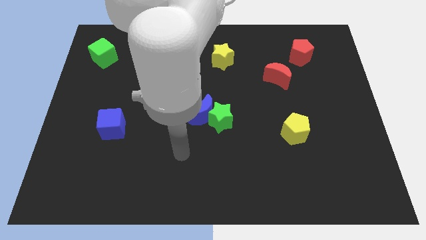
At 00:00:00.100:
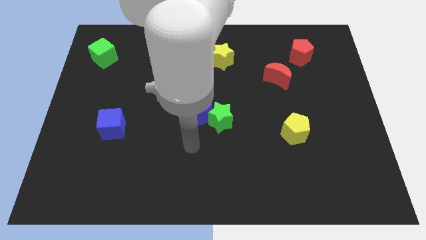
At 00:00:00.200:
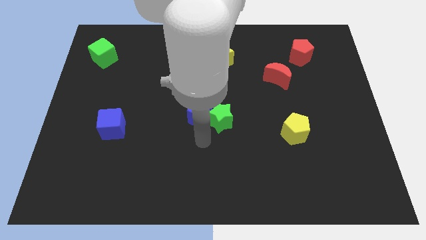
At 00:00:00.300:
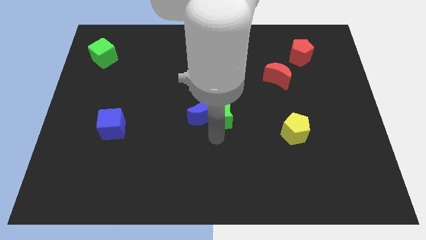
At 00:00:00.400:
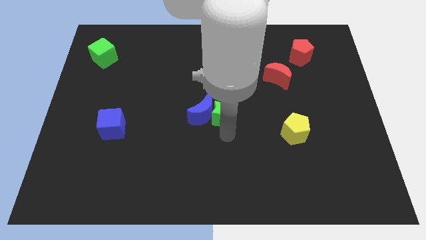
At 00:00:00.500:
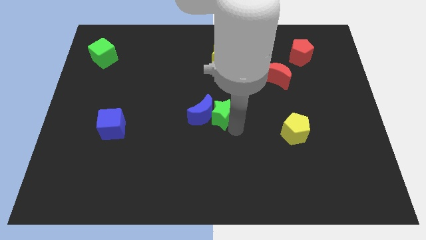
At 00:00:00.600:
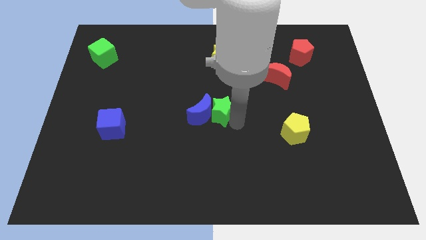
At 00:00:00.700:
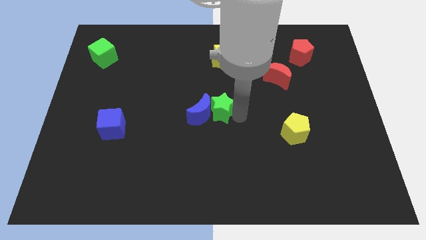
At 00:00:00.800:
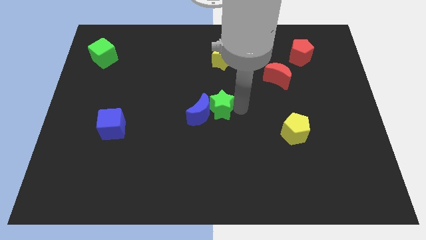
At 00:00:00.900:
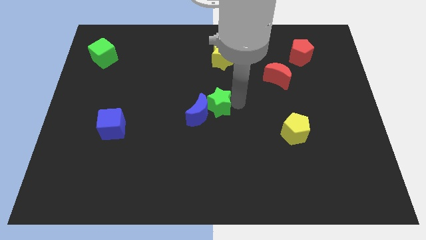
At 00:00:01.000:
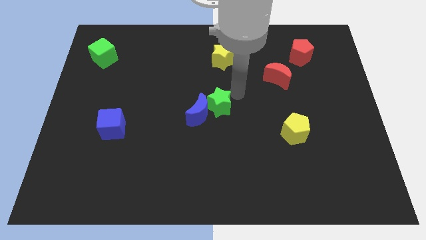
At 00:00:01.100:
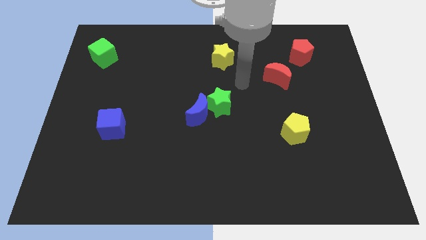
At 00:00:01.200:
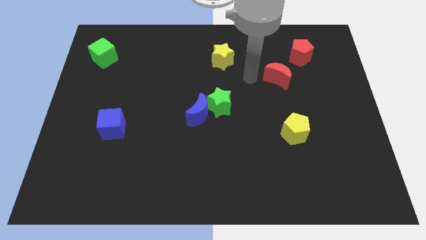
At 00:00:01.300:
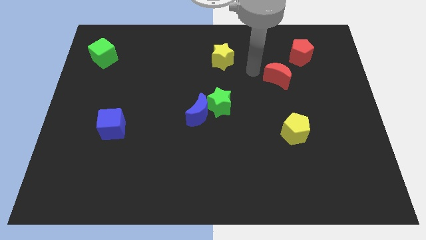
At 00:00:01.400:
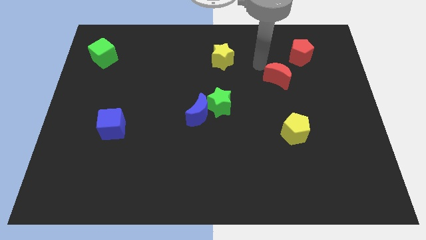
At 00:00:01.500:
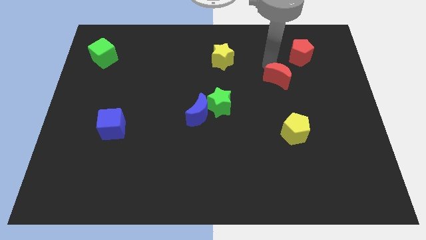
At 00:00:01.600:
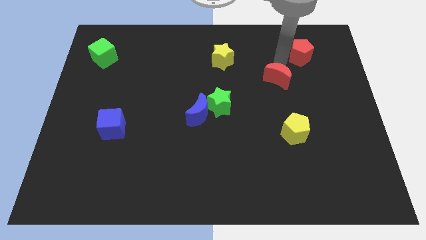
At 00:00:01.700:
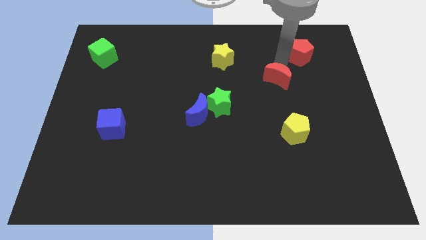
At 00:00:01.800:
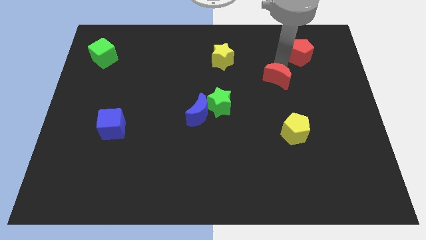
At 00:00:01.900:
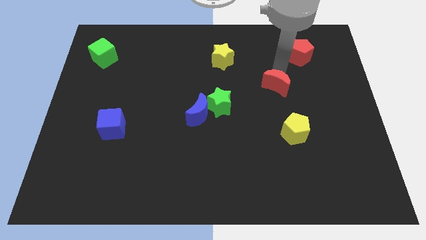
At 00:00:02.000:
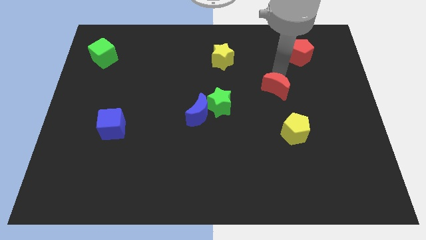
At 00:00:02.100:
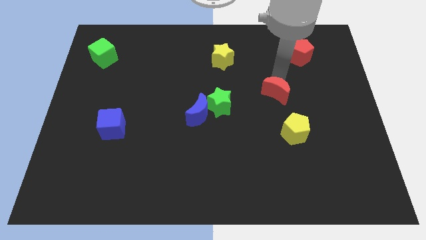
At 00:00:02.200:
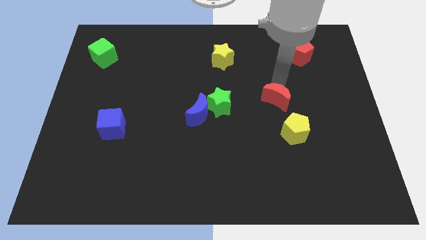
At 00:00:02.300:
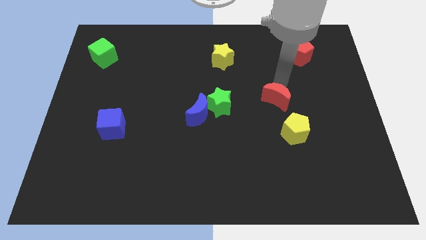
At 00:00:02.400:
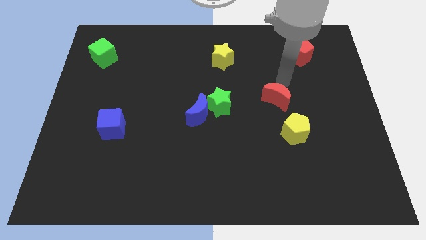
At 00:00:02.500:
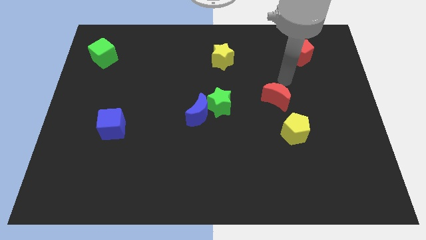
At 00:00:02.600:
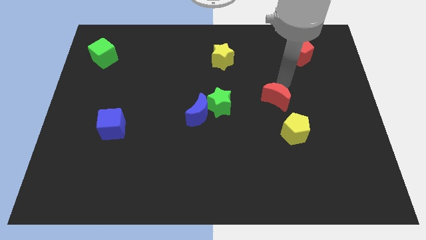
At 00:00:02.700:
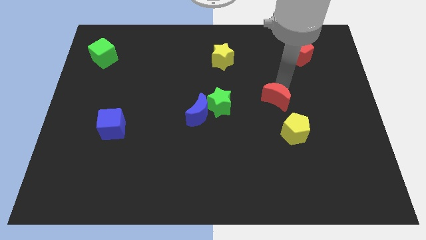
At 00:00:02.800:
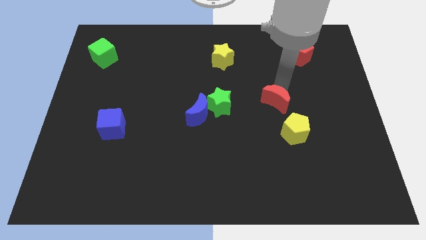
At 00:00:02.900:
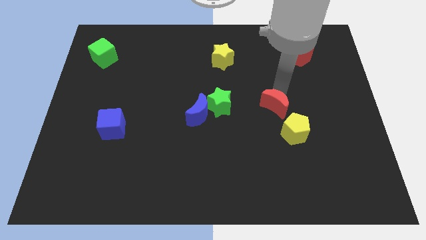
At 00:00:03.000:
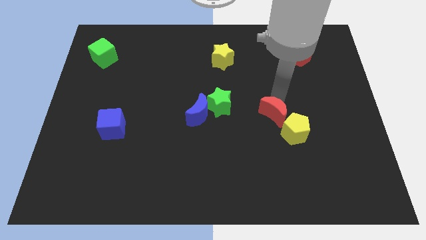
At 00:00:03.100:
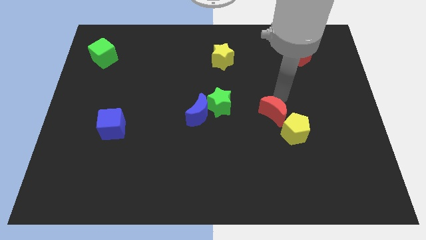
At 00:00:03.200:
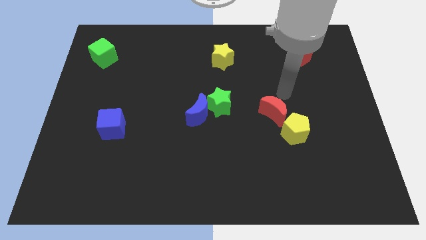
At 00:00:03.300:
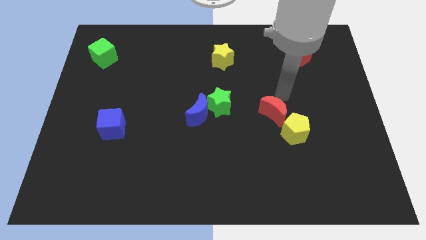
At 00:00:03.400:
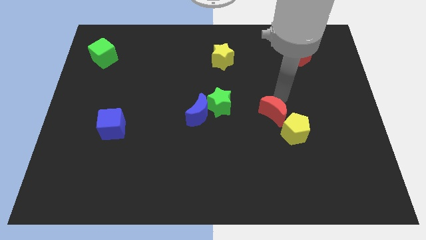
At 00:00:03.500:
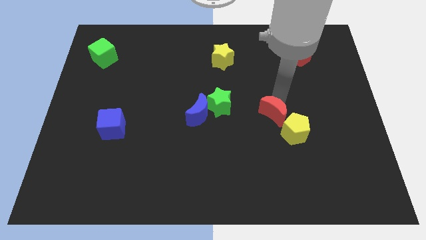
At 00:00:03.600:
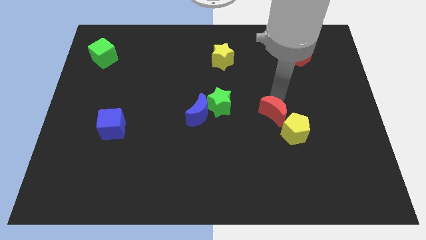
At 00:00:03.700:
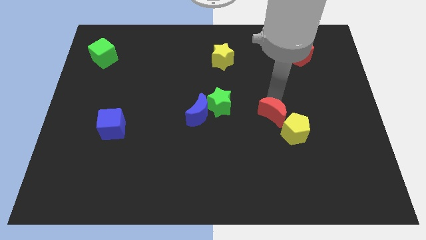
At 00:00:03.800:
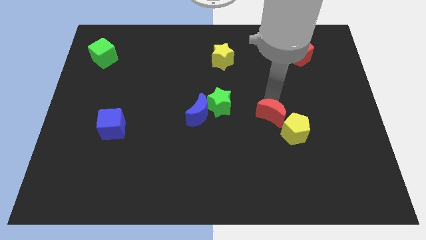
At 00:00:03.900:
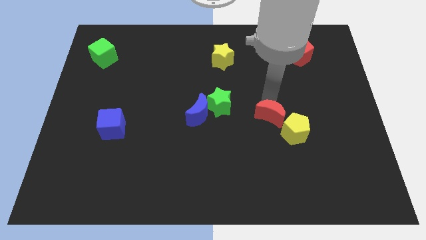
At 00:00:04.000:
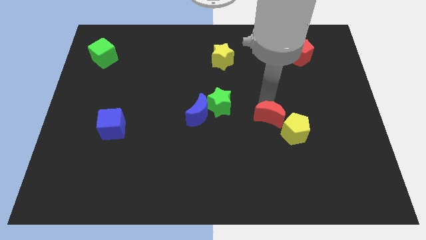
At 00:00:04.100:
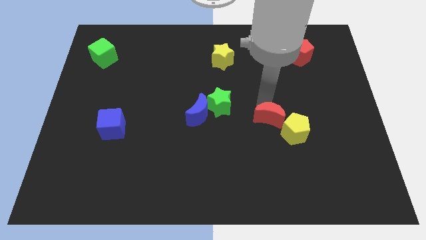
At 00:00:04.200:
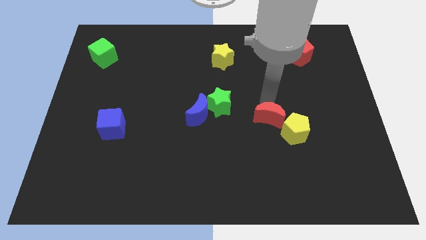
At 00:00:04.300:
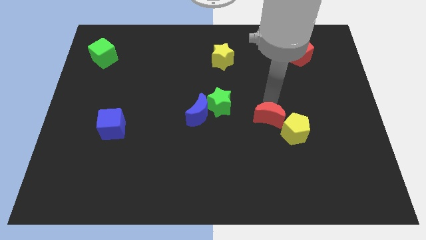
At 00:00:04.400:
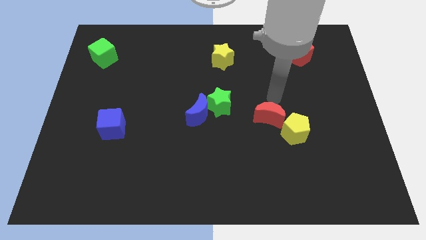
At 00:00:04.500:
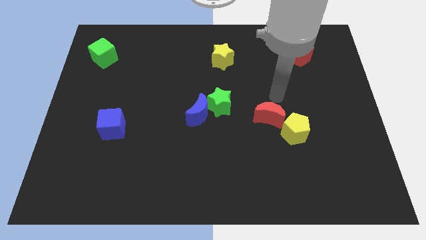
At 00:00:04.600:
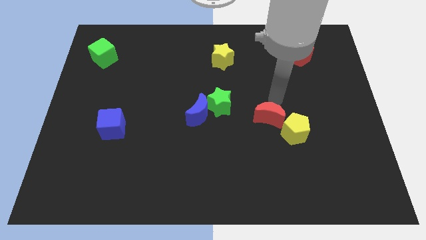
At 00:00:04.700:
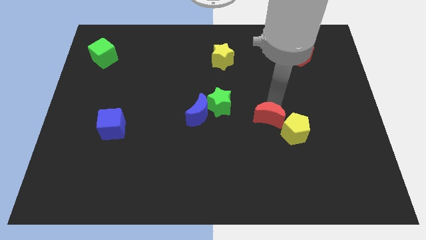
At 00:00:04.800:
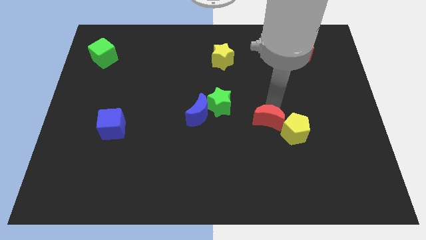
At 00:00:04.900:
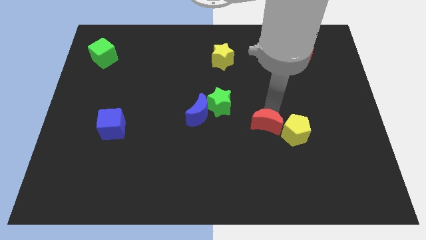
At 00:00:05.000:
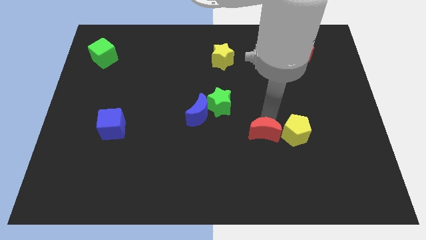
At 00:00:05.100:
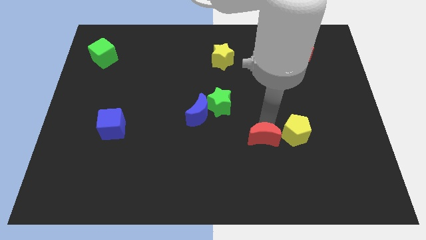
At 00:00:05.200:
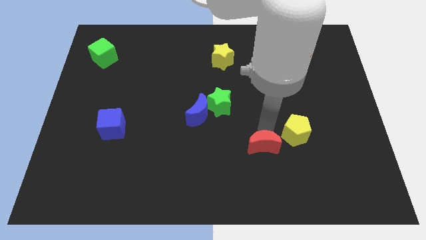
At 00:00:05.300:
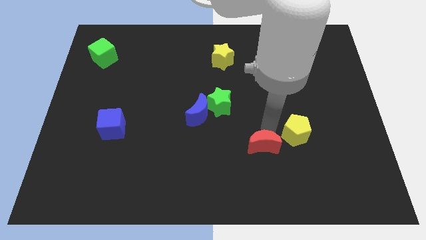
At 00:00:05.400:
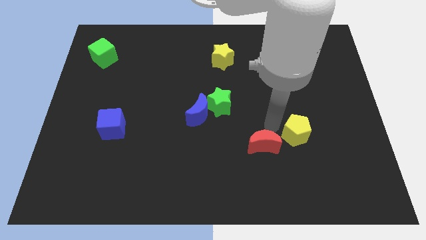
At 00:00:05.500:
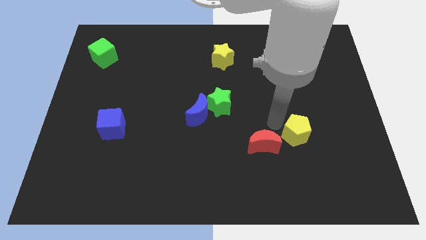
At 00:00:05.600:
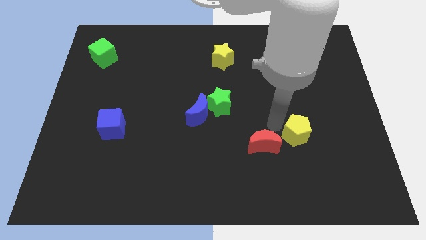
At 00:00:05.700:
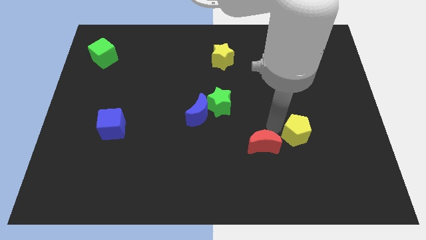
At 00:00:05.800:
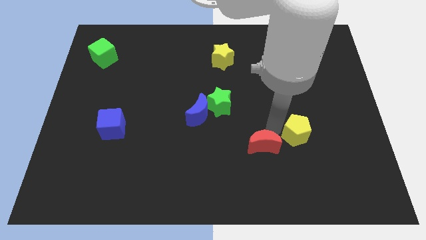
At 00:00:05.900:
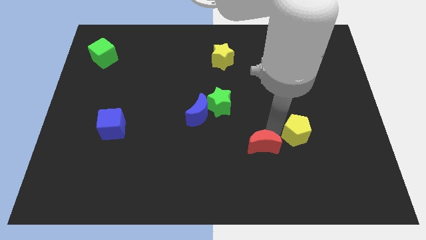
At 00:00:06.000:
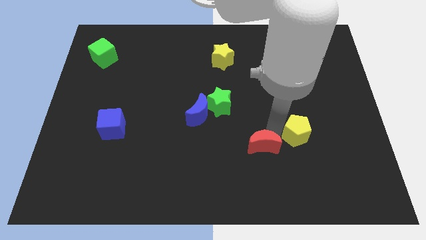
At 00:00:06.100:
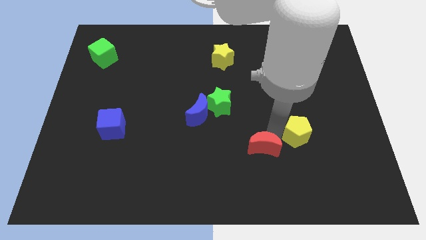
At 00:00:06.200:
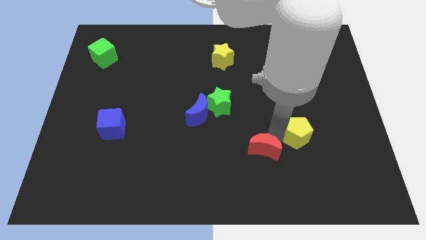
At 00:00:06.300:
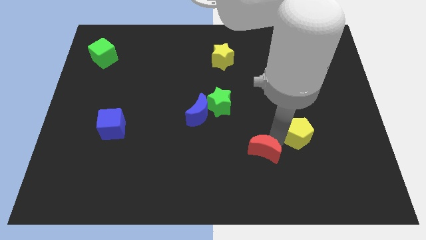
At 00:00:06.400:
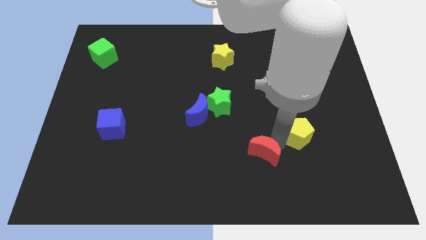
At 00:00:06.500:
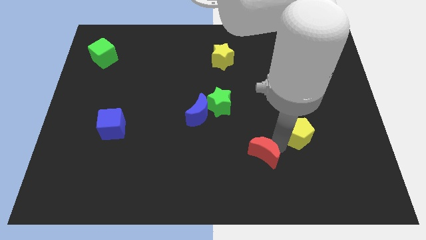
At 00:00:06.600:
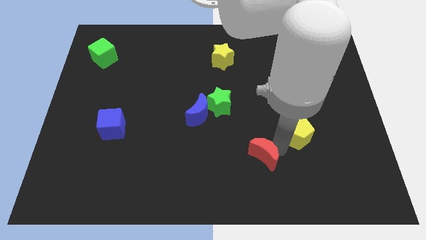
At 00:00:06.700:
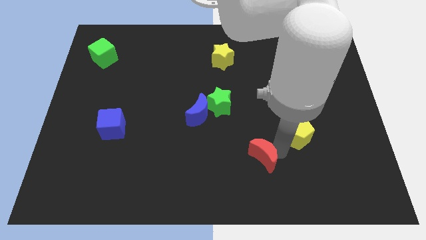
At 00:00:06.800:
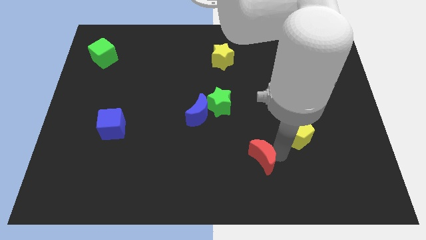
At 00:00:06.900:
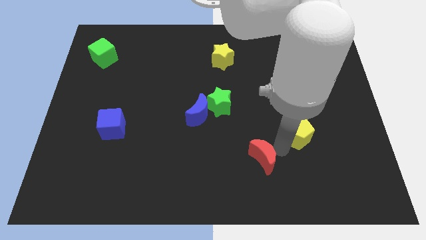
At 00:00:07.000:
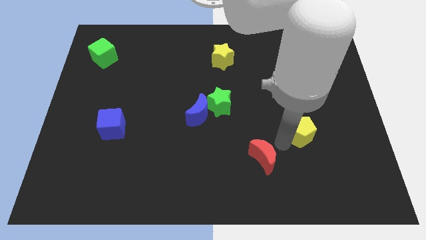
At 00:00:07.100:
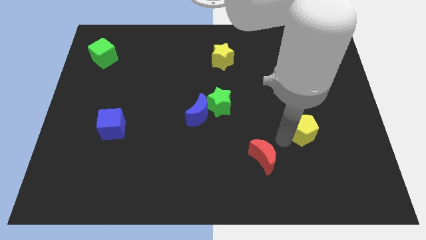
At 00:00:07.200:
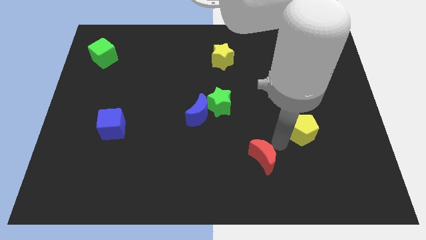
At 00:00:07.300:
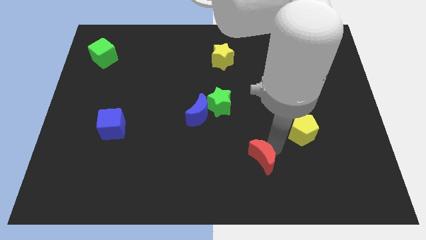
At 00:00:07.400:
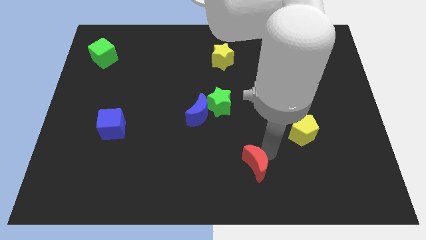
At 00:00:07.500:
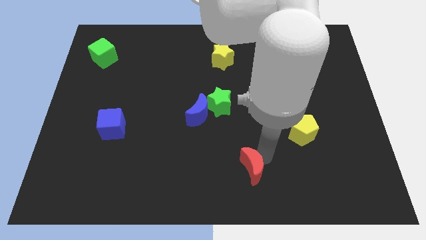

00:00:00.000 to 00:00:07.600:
put the red moon to the bottom side
